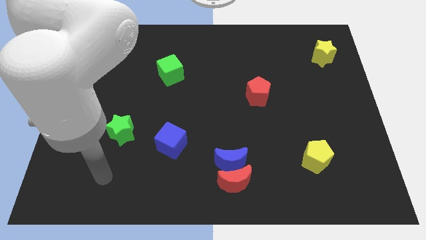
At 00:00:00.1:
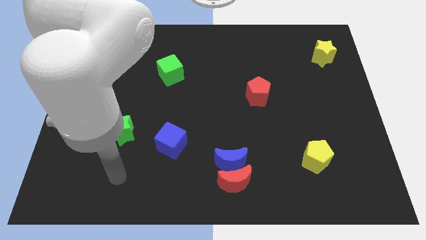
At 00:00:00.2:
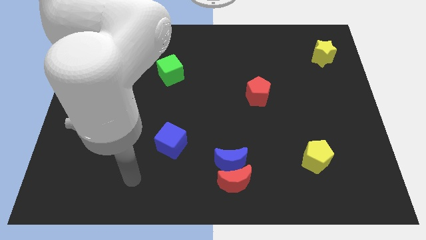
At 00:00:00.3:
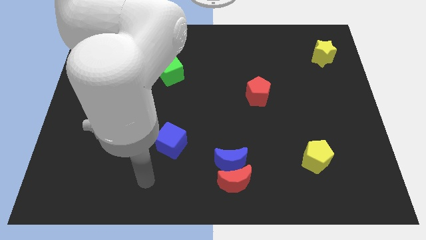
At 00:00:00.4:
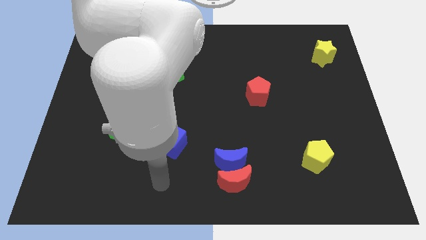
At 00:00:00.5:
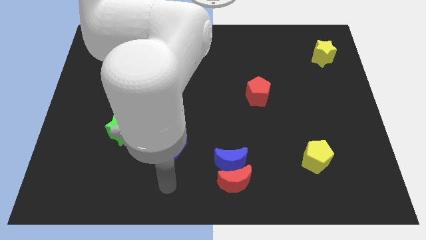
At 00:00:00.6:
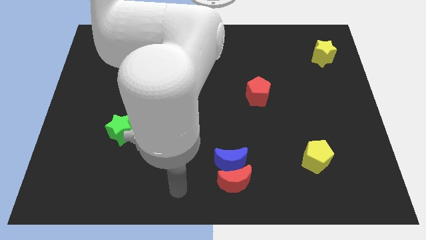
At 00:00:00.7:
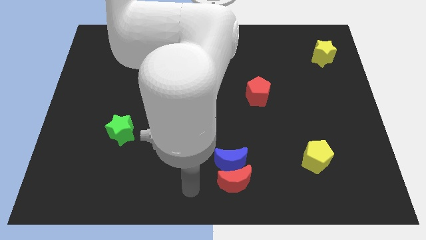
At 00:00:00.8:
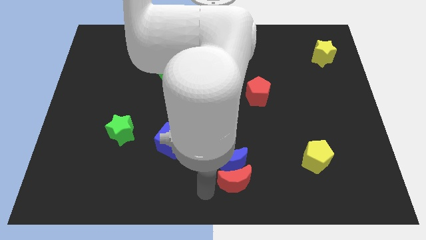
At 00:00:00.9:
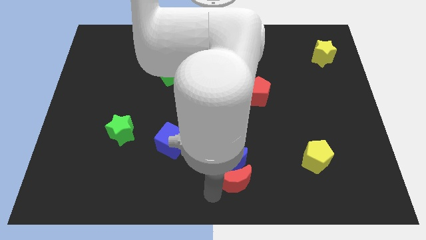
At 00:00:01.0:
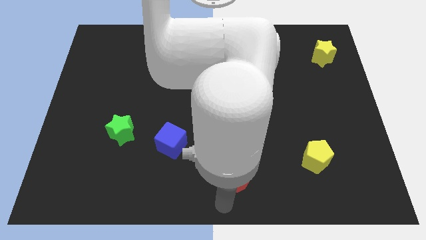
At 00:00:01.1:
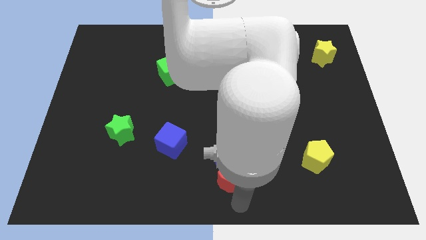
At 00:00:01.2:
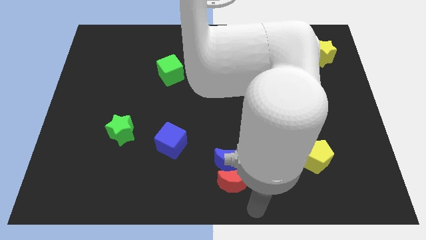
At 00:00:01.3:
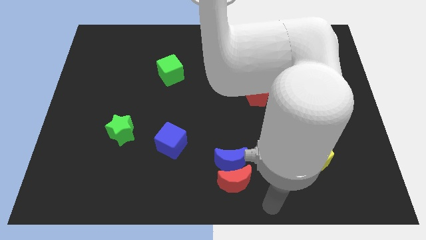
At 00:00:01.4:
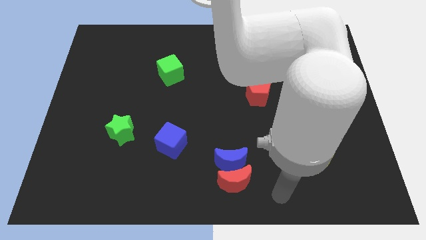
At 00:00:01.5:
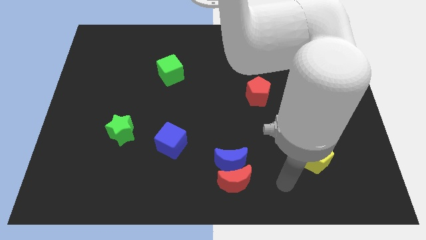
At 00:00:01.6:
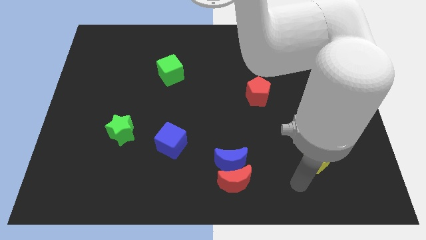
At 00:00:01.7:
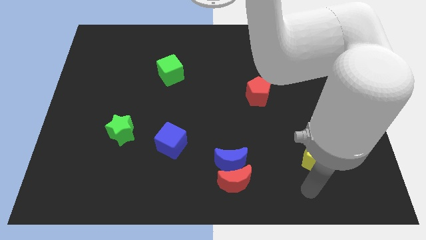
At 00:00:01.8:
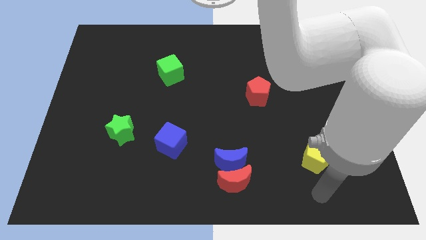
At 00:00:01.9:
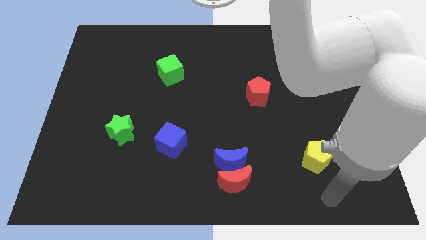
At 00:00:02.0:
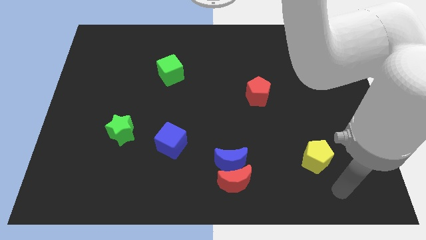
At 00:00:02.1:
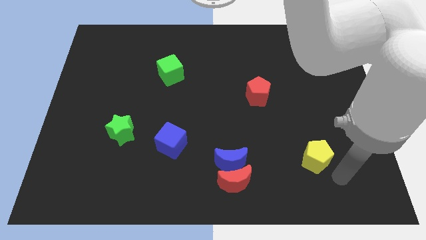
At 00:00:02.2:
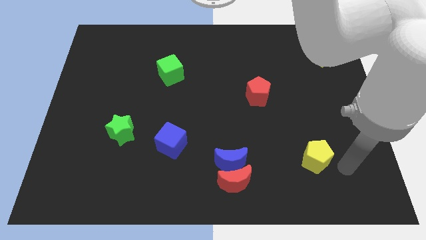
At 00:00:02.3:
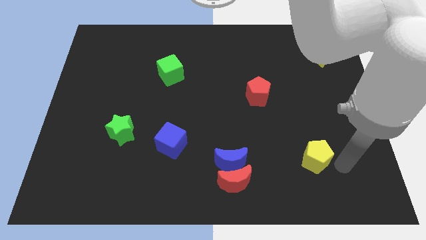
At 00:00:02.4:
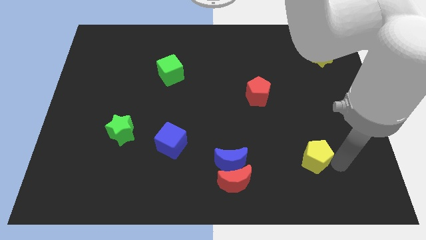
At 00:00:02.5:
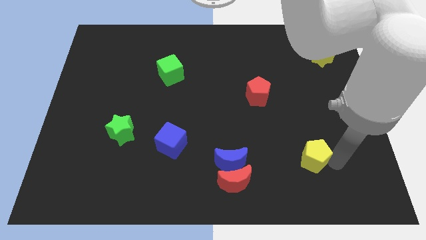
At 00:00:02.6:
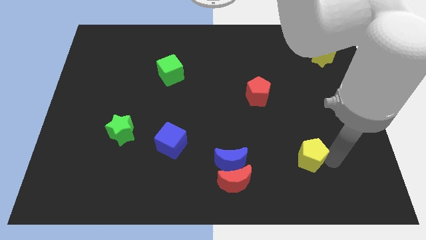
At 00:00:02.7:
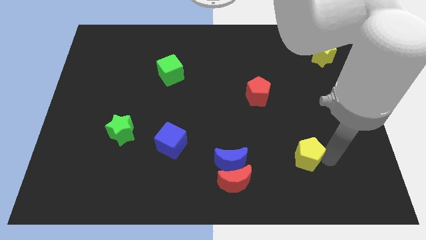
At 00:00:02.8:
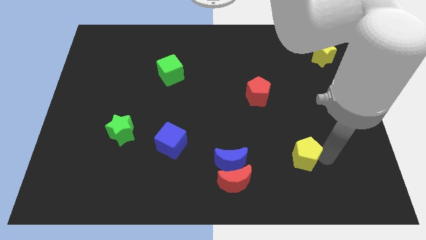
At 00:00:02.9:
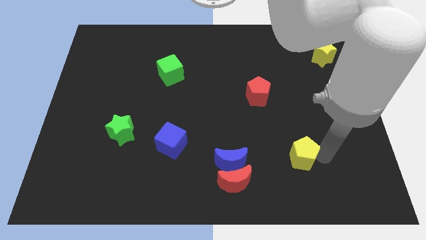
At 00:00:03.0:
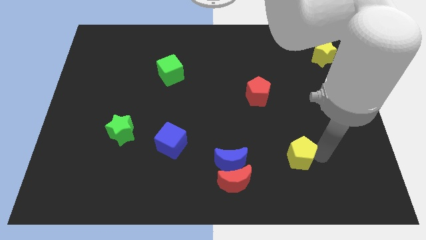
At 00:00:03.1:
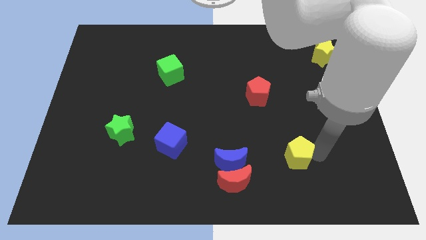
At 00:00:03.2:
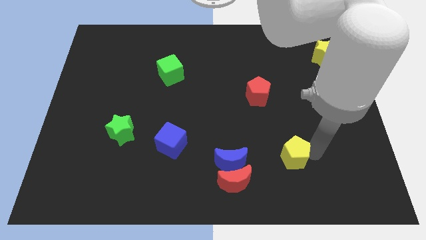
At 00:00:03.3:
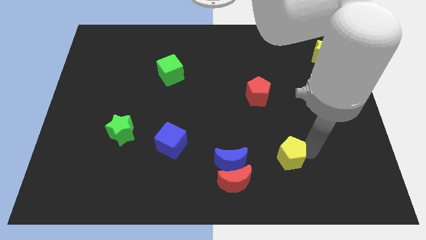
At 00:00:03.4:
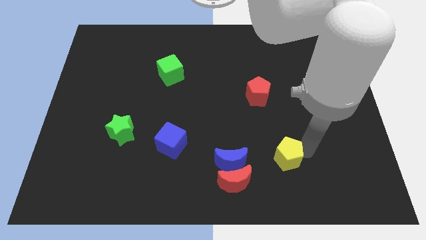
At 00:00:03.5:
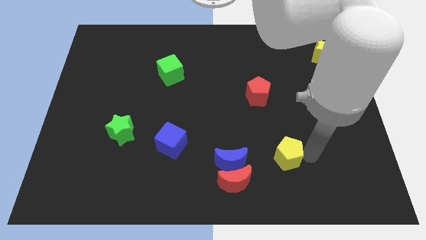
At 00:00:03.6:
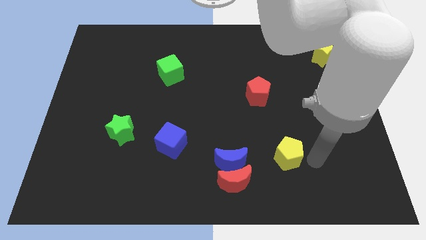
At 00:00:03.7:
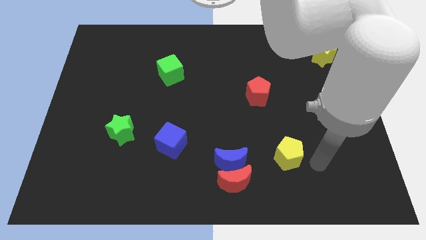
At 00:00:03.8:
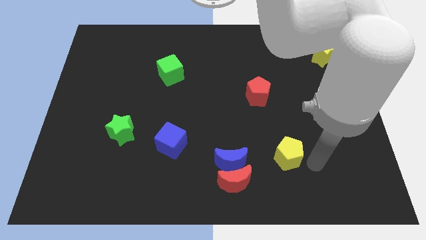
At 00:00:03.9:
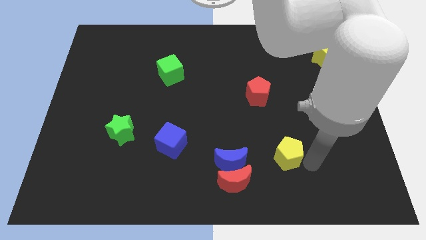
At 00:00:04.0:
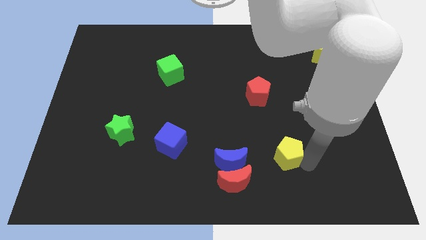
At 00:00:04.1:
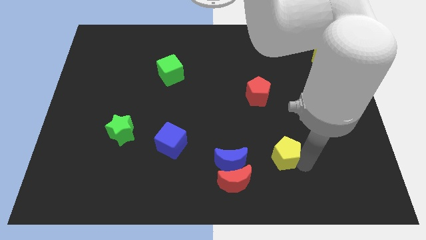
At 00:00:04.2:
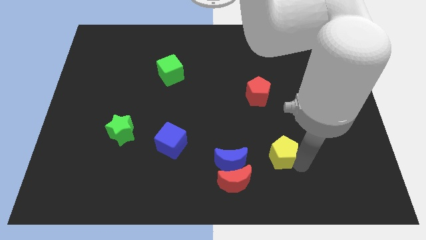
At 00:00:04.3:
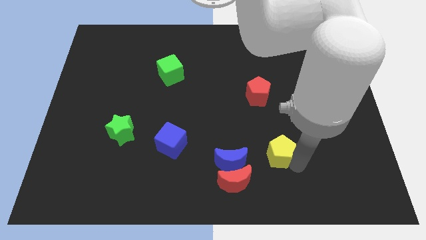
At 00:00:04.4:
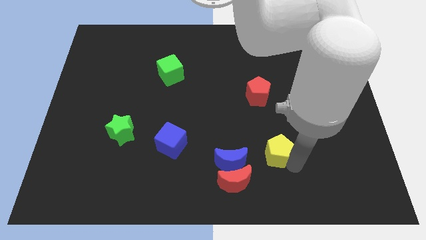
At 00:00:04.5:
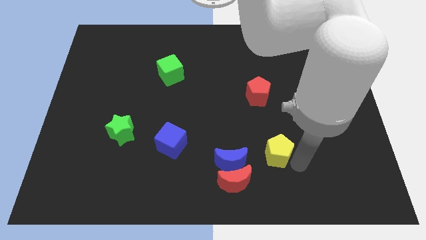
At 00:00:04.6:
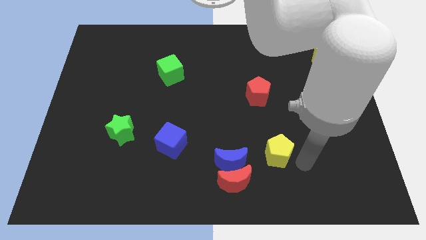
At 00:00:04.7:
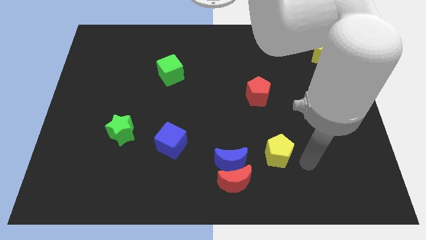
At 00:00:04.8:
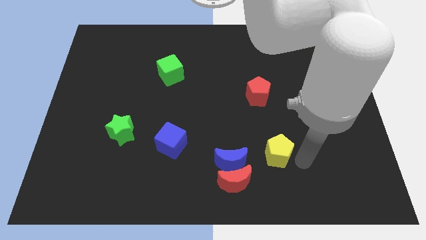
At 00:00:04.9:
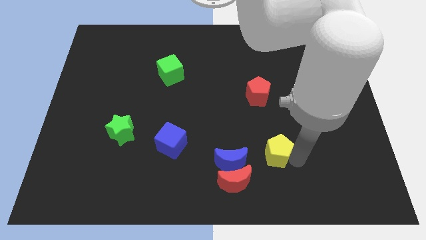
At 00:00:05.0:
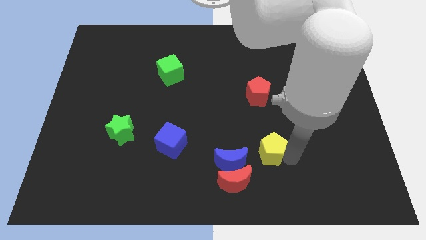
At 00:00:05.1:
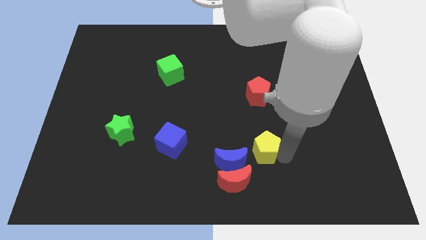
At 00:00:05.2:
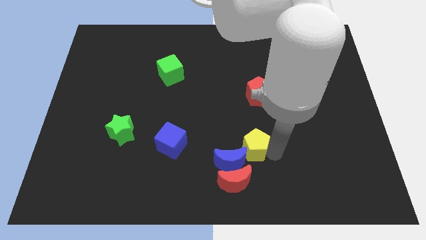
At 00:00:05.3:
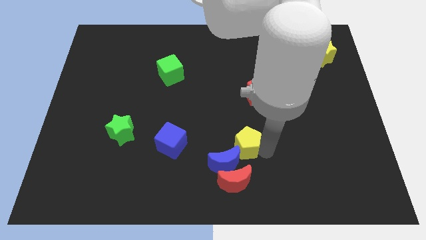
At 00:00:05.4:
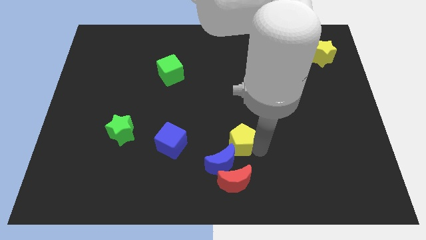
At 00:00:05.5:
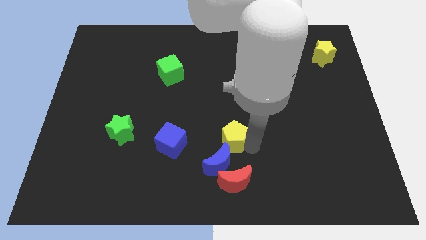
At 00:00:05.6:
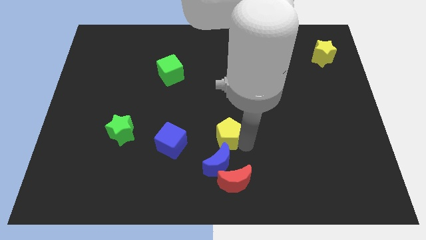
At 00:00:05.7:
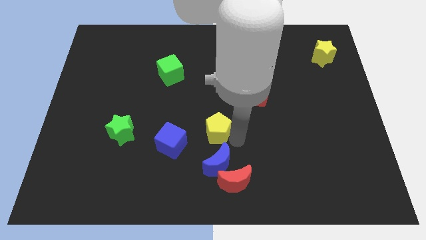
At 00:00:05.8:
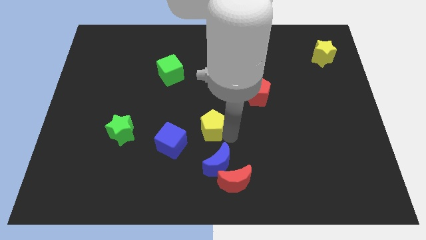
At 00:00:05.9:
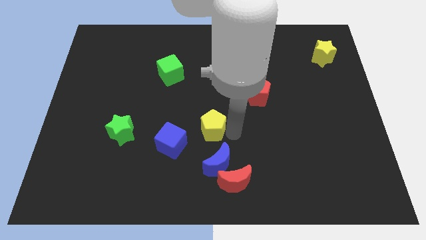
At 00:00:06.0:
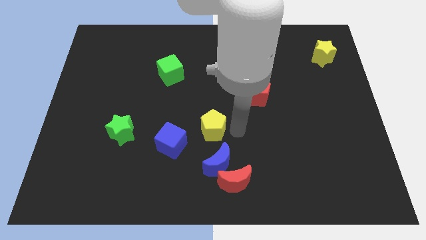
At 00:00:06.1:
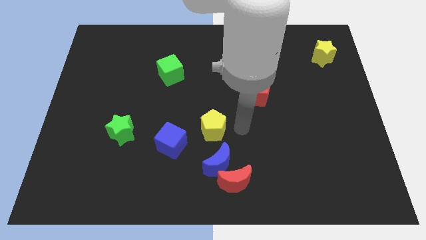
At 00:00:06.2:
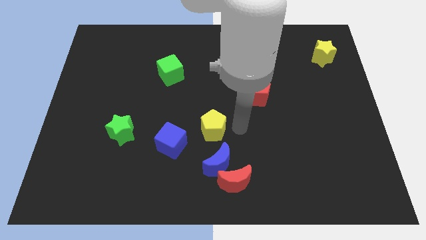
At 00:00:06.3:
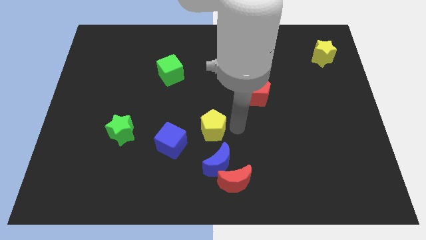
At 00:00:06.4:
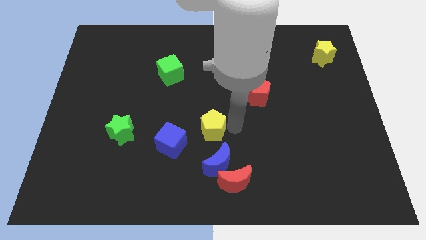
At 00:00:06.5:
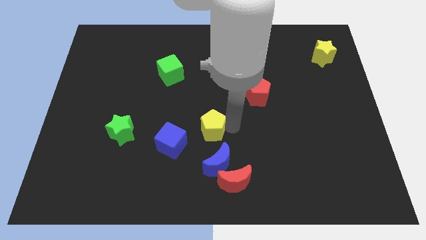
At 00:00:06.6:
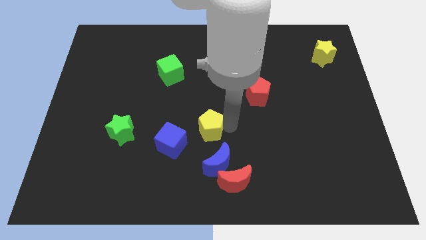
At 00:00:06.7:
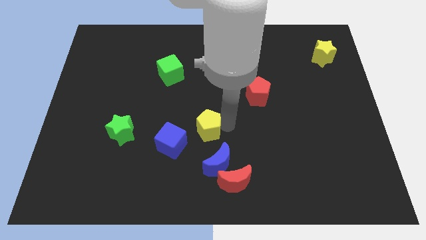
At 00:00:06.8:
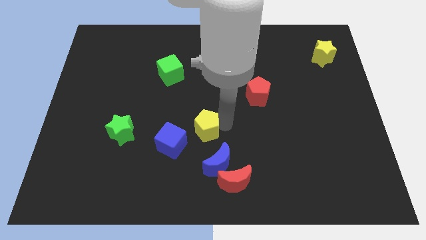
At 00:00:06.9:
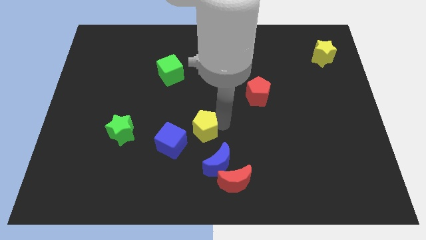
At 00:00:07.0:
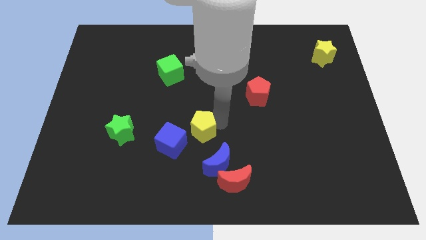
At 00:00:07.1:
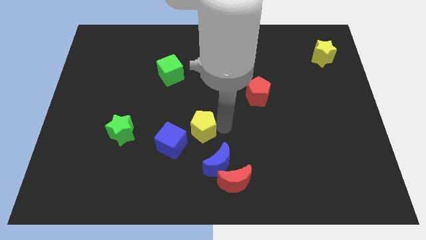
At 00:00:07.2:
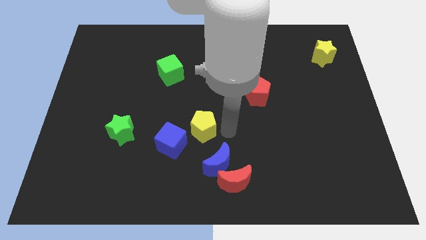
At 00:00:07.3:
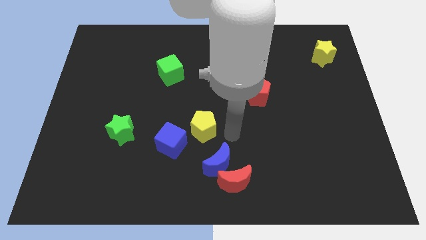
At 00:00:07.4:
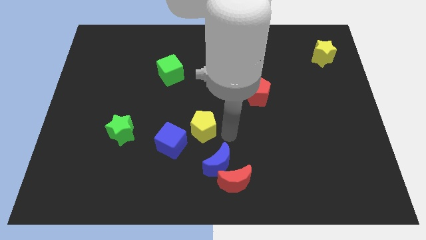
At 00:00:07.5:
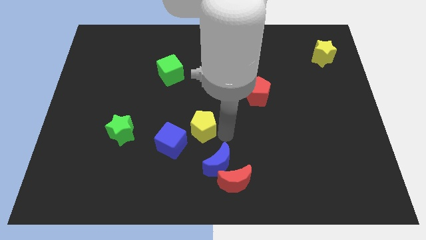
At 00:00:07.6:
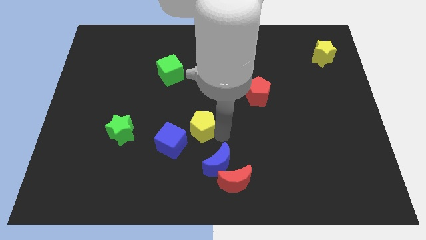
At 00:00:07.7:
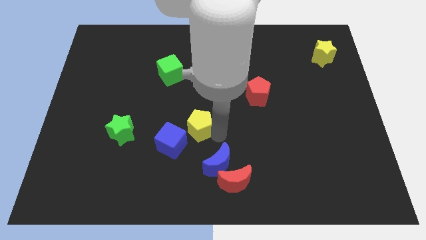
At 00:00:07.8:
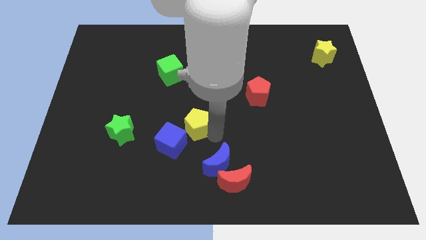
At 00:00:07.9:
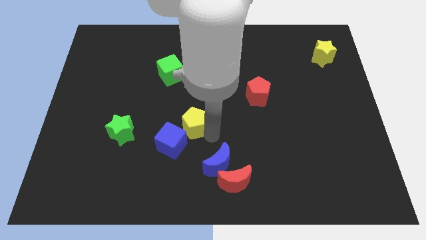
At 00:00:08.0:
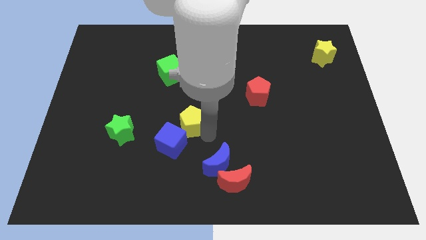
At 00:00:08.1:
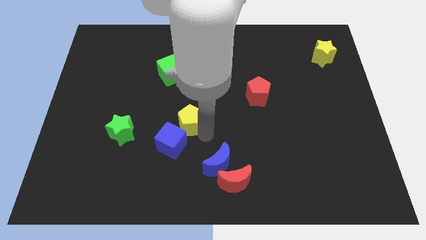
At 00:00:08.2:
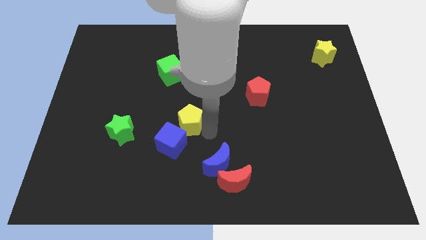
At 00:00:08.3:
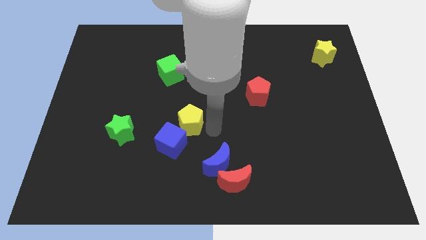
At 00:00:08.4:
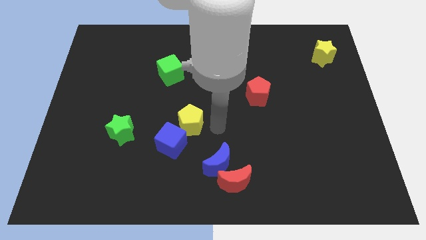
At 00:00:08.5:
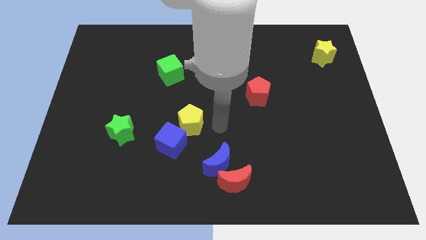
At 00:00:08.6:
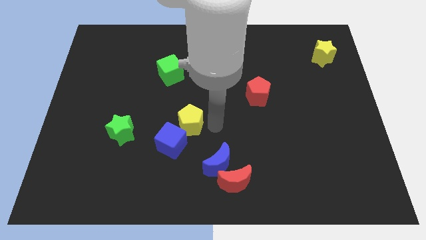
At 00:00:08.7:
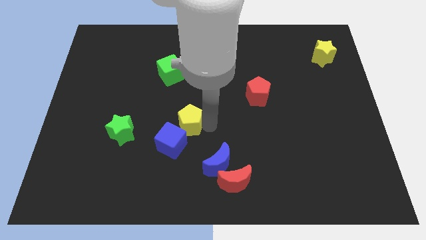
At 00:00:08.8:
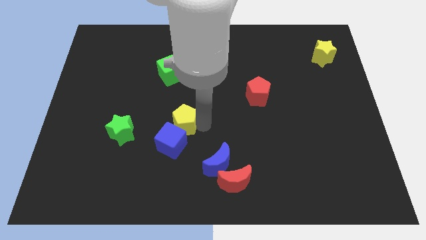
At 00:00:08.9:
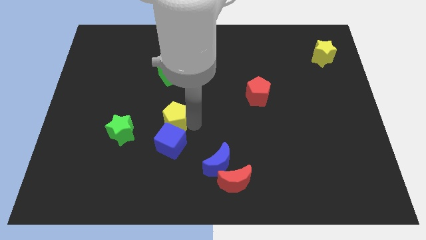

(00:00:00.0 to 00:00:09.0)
move the yellow pentagon to the top left of the blue cube
